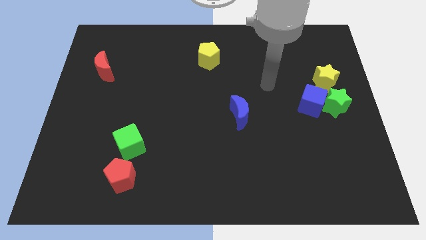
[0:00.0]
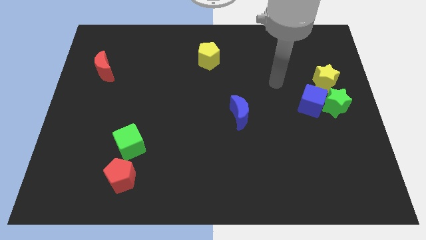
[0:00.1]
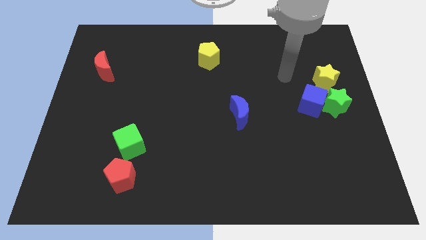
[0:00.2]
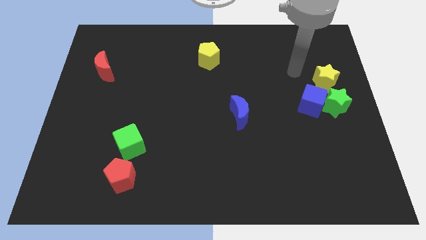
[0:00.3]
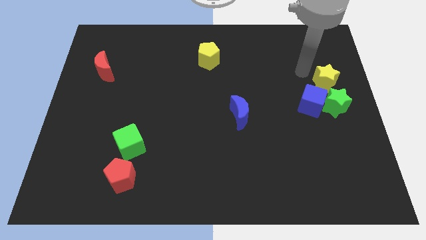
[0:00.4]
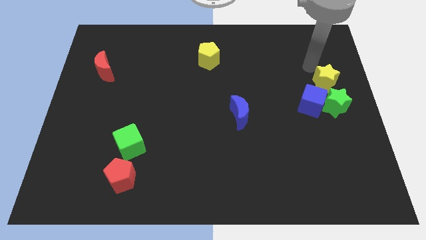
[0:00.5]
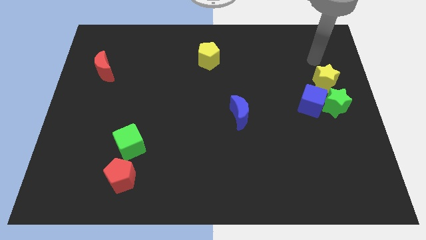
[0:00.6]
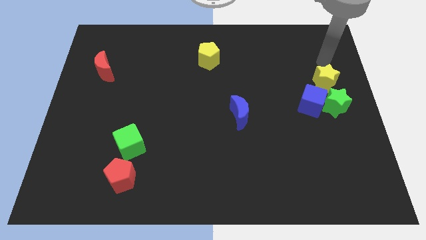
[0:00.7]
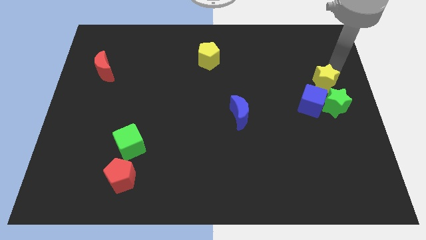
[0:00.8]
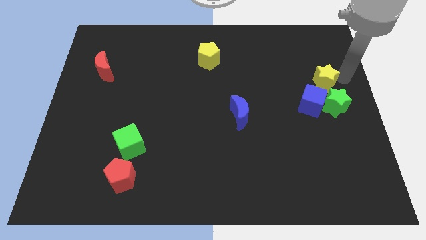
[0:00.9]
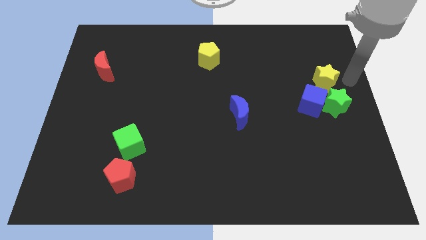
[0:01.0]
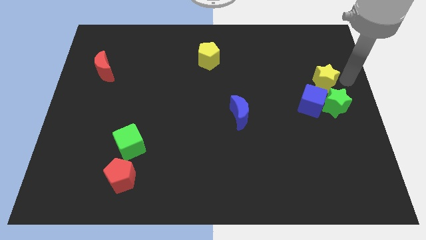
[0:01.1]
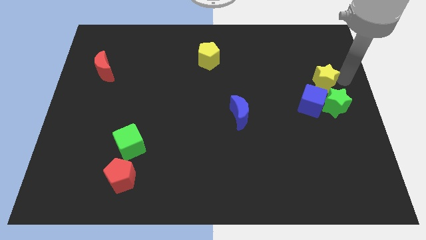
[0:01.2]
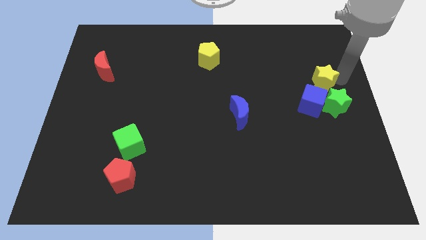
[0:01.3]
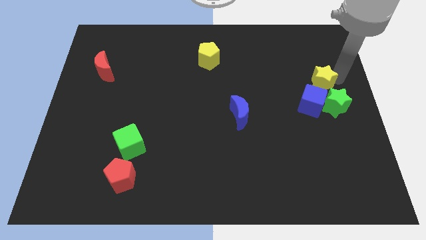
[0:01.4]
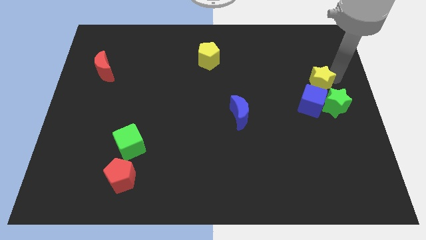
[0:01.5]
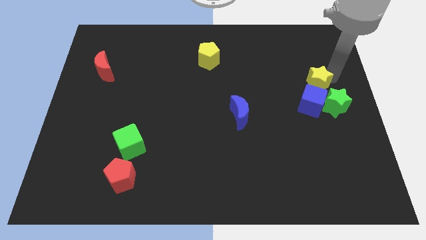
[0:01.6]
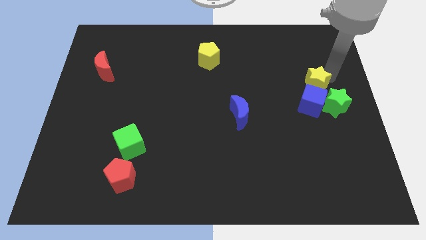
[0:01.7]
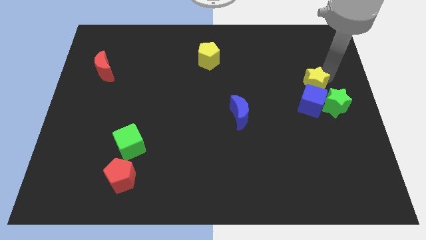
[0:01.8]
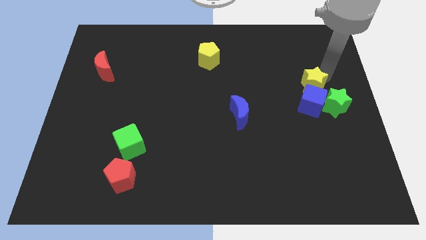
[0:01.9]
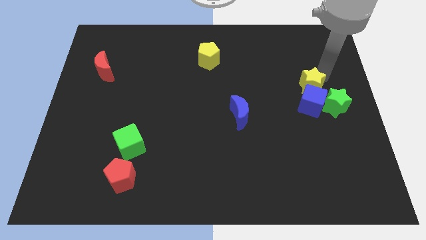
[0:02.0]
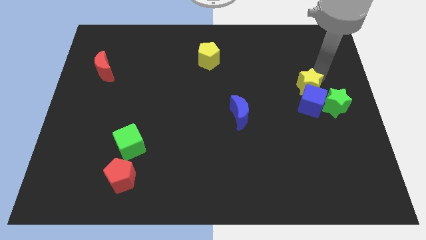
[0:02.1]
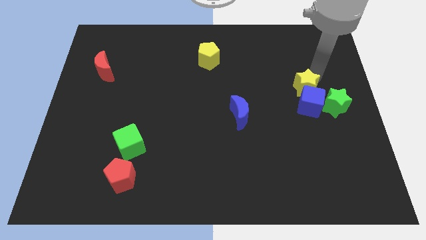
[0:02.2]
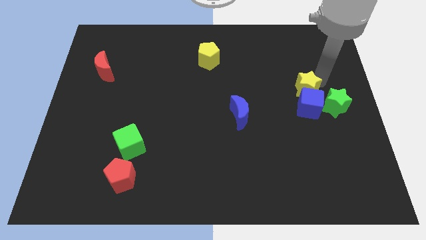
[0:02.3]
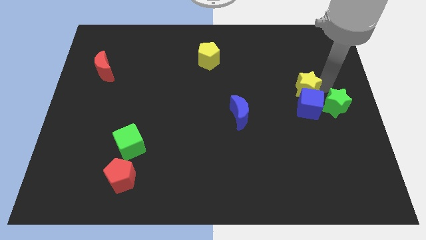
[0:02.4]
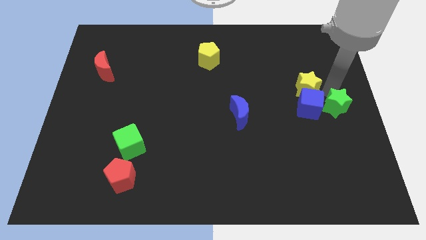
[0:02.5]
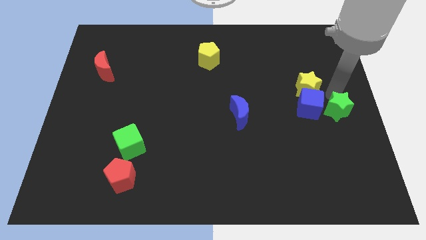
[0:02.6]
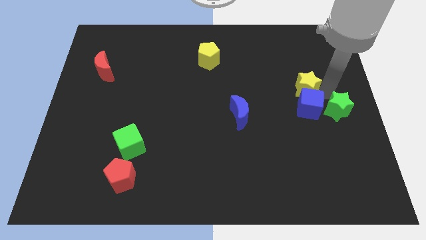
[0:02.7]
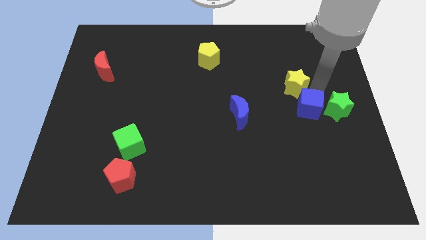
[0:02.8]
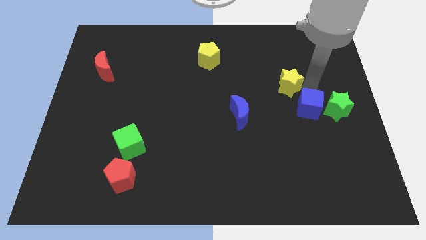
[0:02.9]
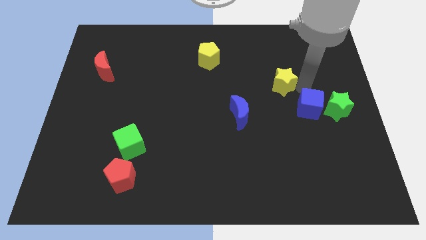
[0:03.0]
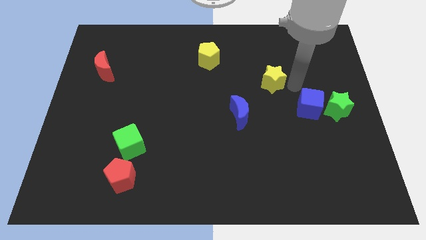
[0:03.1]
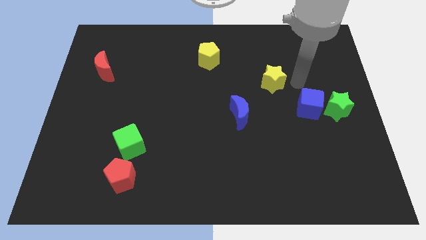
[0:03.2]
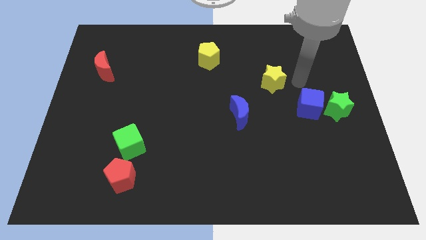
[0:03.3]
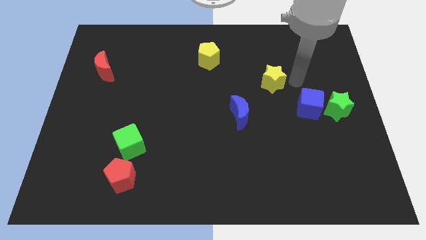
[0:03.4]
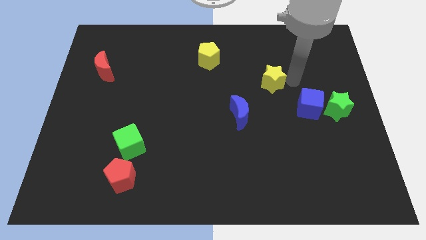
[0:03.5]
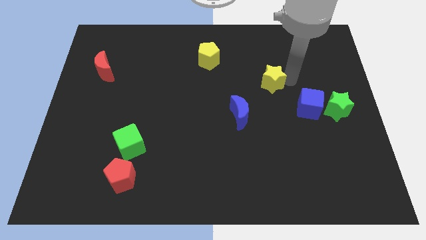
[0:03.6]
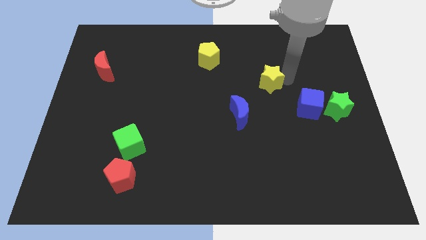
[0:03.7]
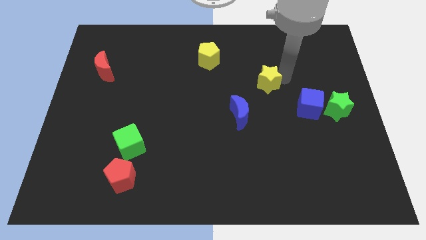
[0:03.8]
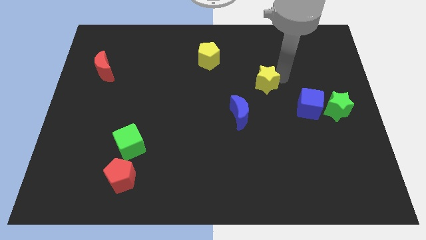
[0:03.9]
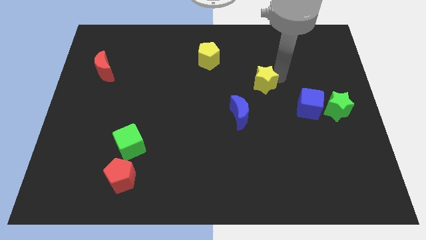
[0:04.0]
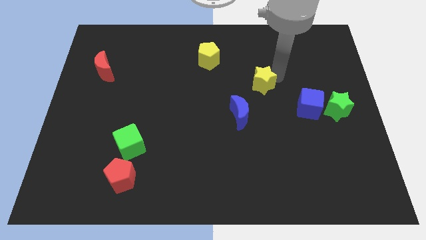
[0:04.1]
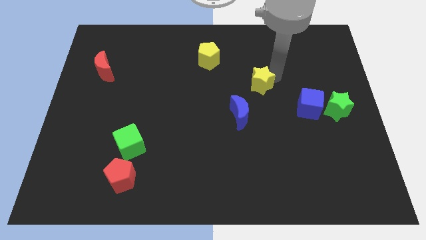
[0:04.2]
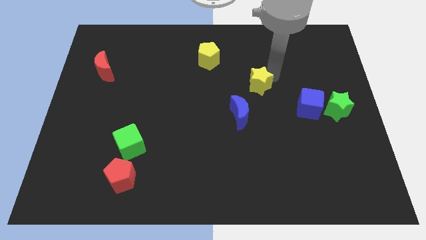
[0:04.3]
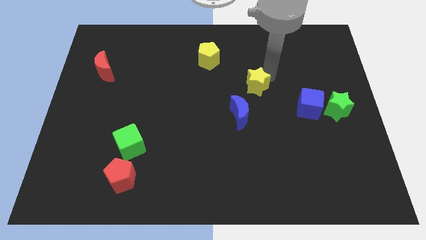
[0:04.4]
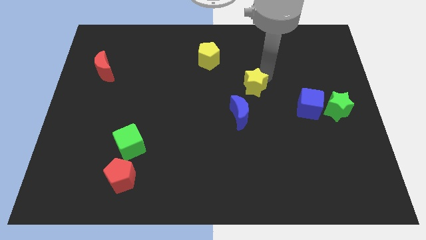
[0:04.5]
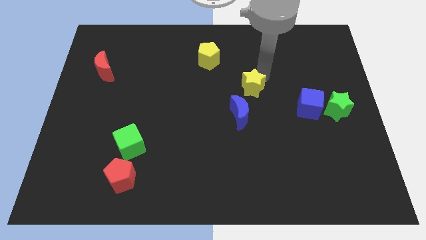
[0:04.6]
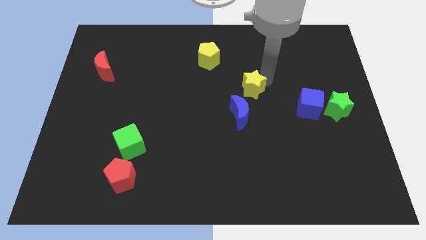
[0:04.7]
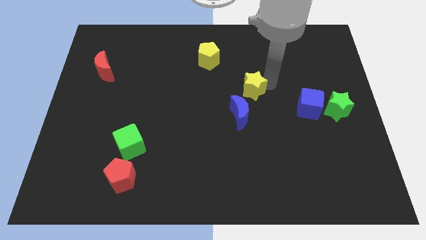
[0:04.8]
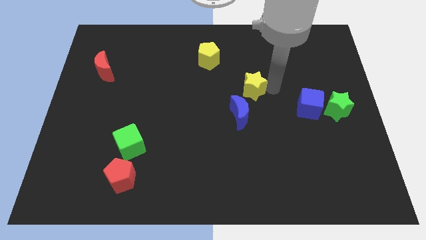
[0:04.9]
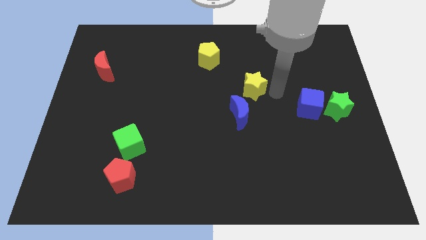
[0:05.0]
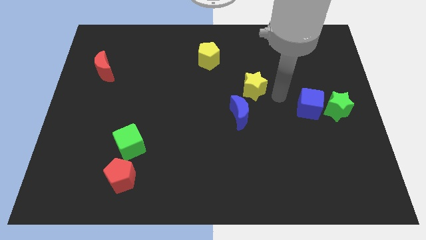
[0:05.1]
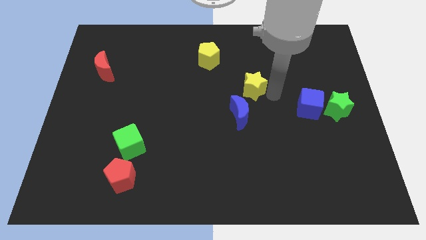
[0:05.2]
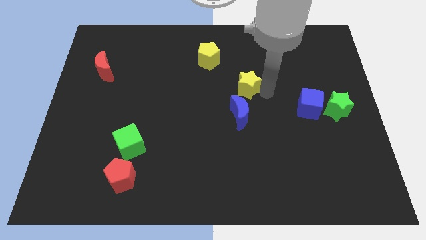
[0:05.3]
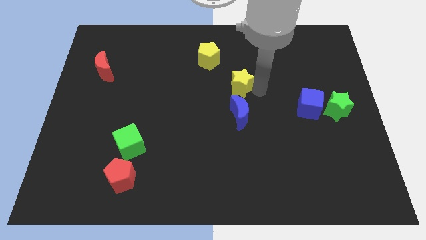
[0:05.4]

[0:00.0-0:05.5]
move the yellow star left

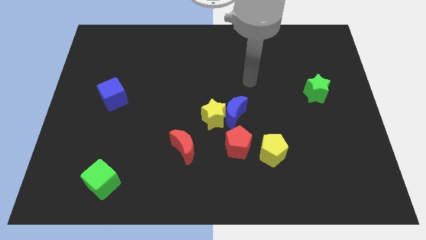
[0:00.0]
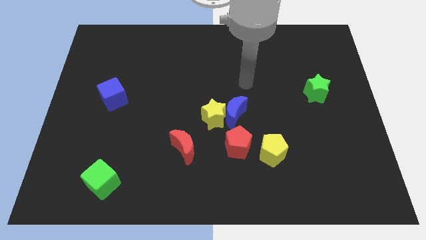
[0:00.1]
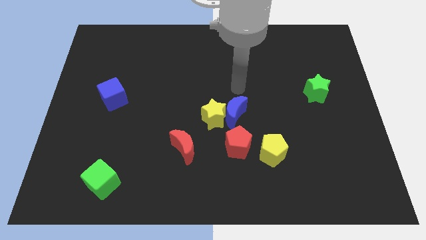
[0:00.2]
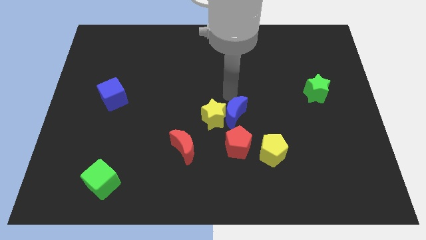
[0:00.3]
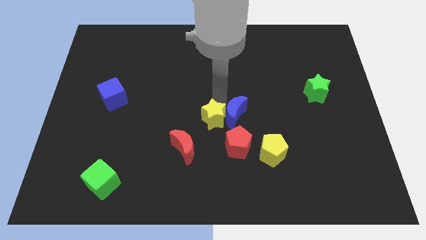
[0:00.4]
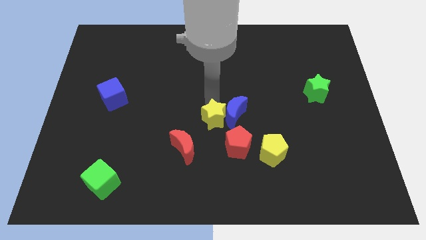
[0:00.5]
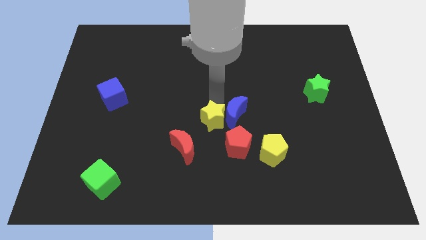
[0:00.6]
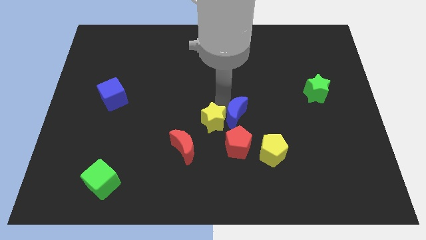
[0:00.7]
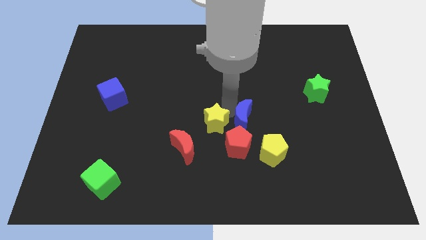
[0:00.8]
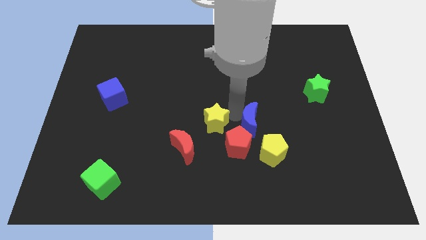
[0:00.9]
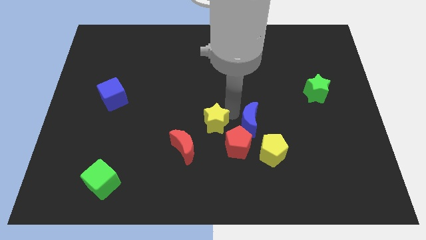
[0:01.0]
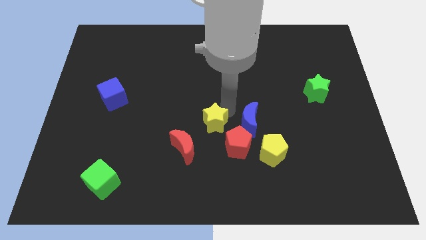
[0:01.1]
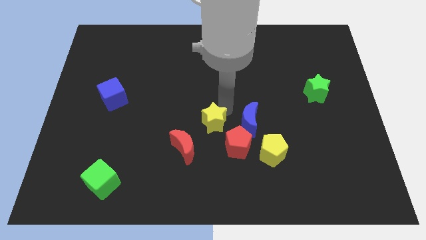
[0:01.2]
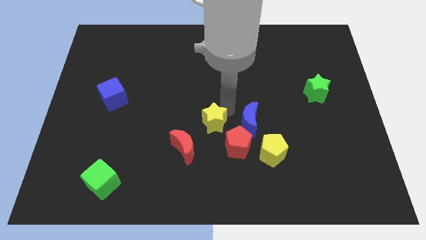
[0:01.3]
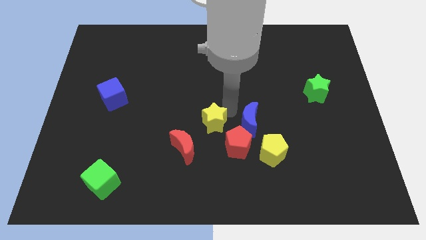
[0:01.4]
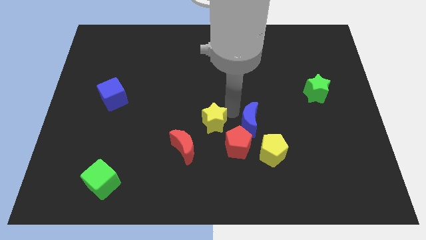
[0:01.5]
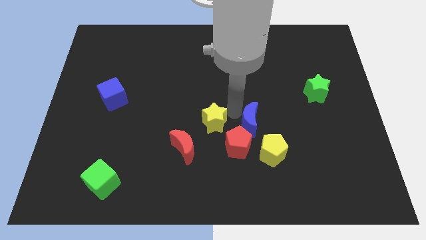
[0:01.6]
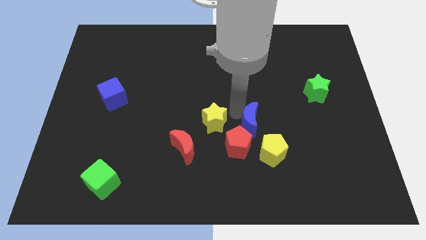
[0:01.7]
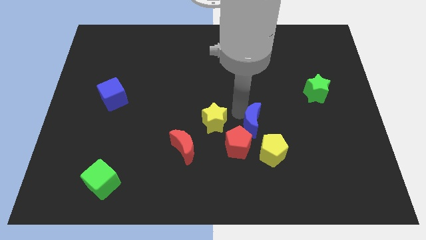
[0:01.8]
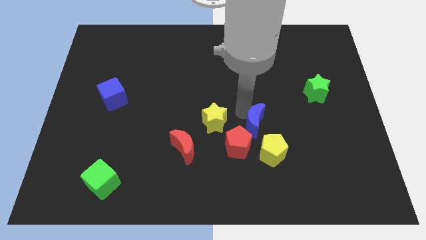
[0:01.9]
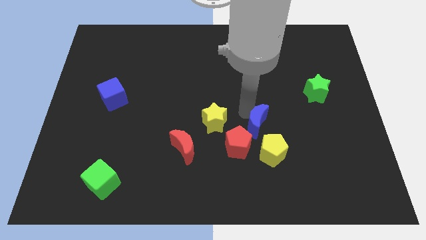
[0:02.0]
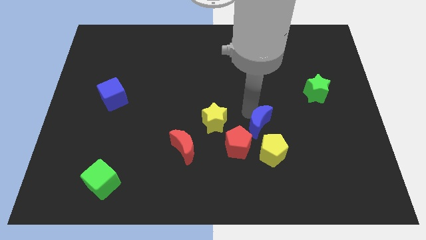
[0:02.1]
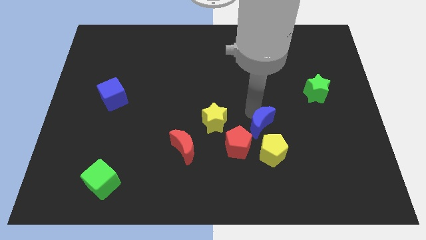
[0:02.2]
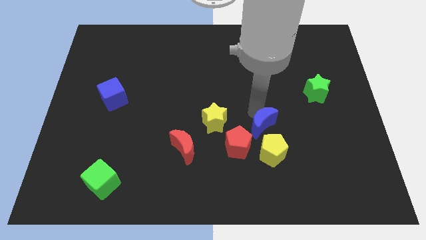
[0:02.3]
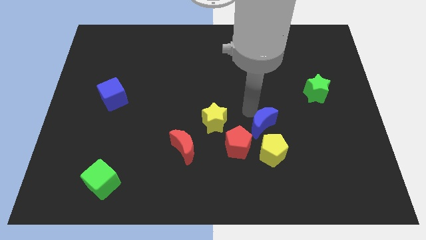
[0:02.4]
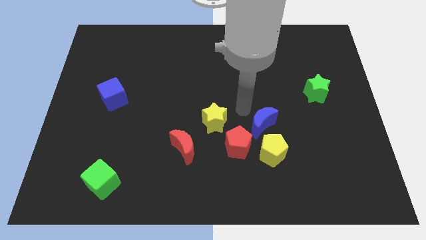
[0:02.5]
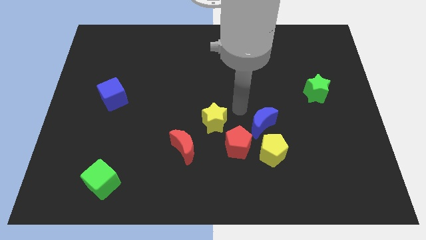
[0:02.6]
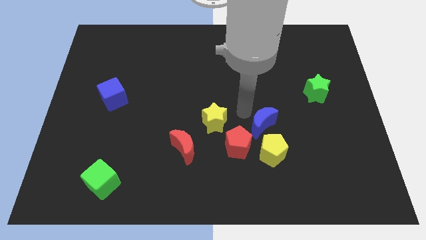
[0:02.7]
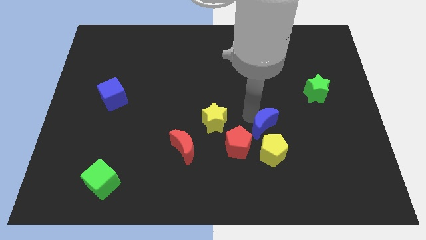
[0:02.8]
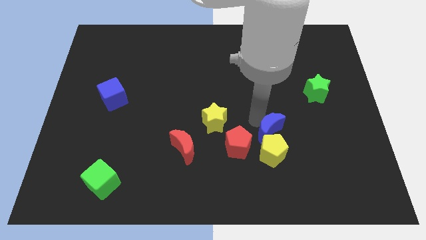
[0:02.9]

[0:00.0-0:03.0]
move the blue moon a little bit down and right diagonally
